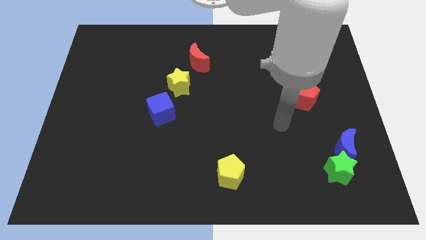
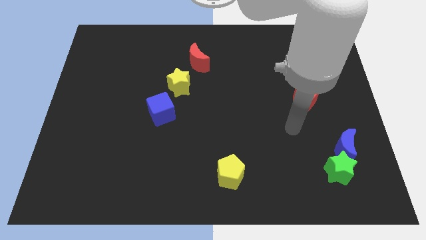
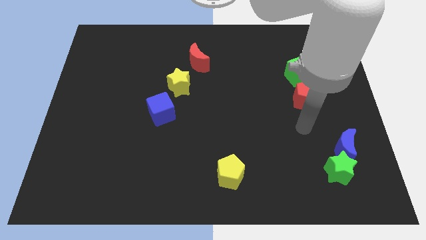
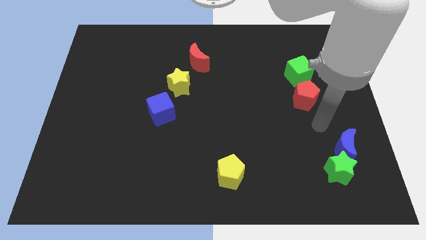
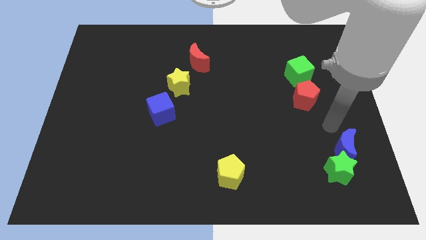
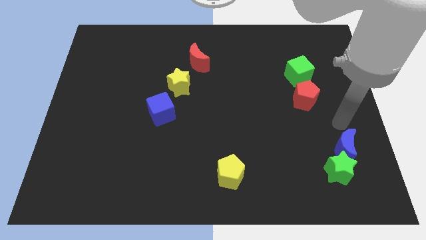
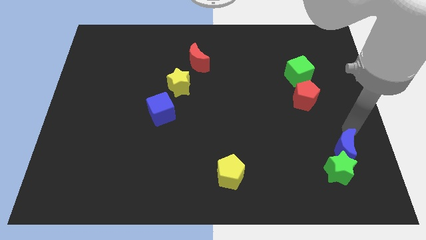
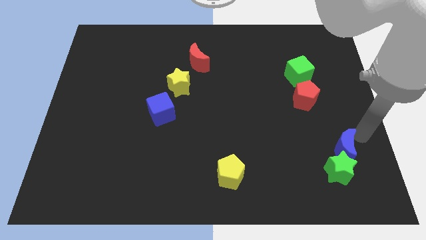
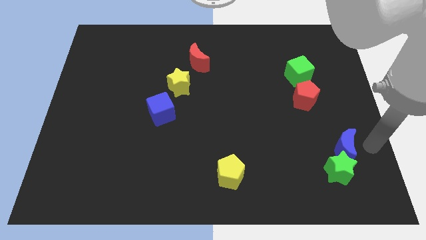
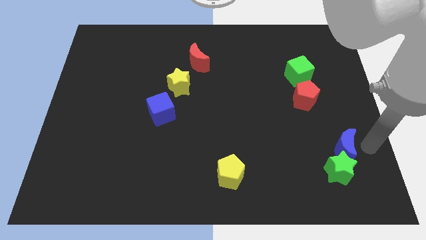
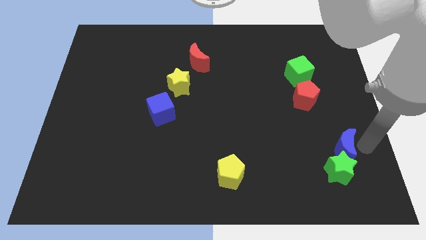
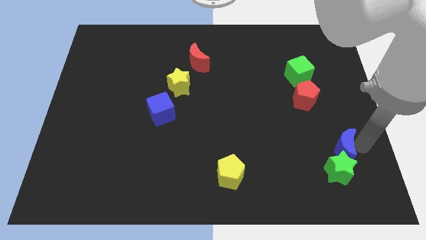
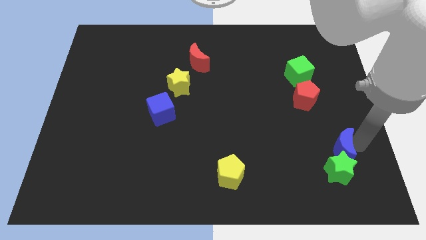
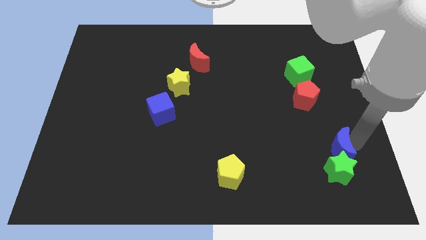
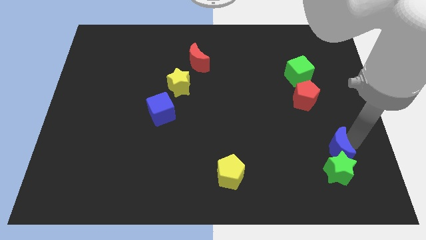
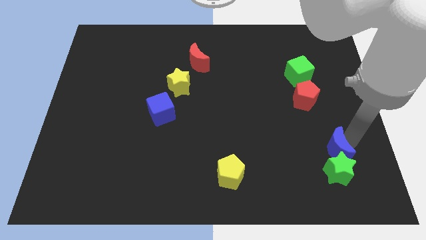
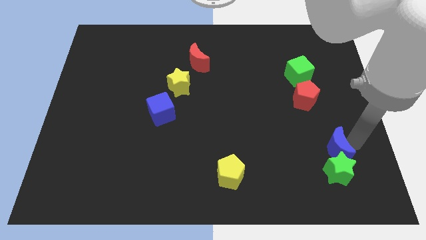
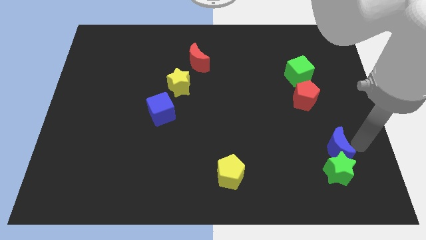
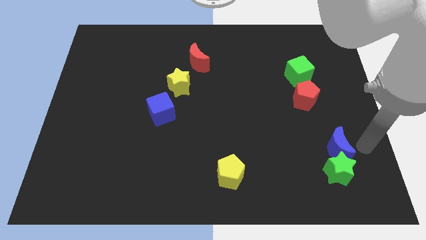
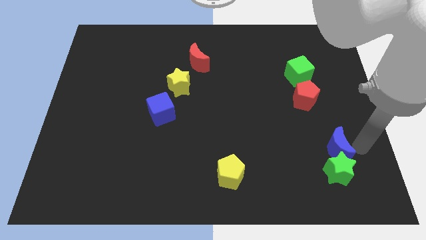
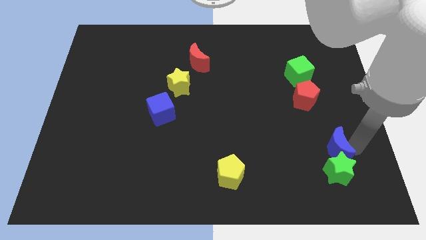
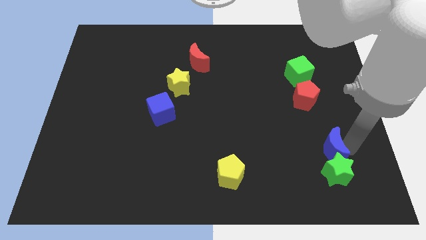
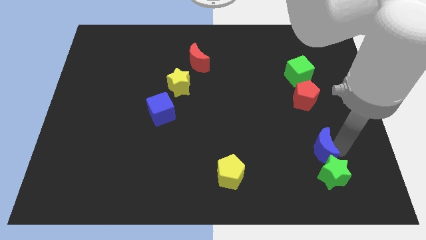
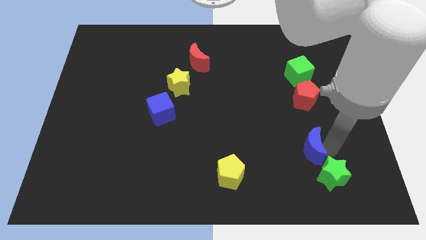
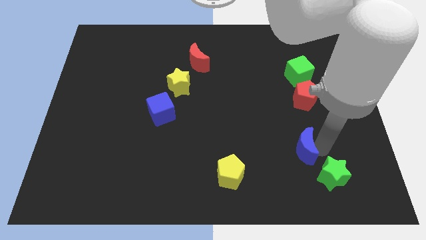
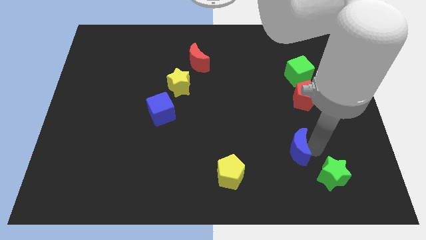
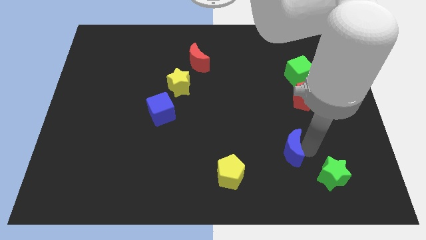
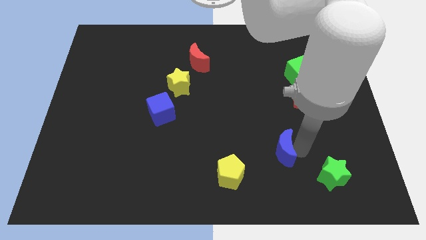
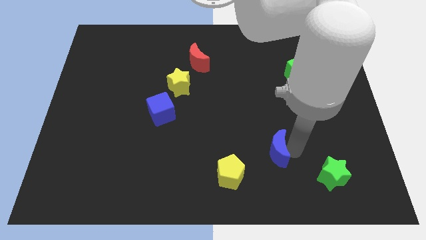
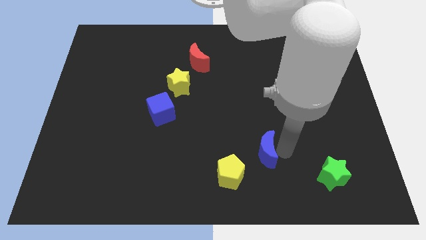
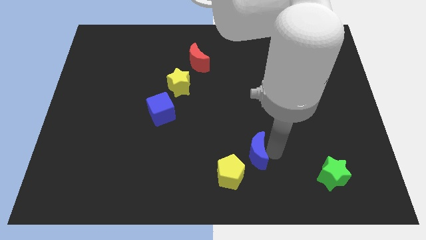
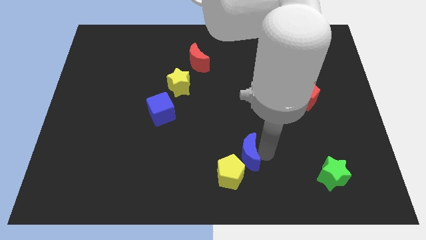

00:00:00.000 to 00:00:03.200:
push the blue moon left

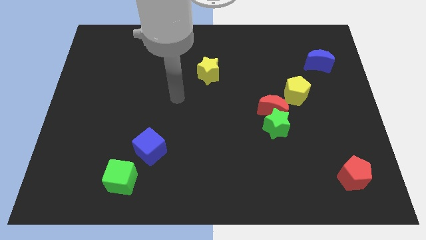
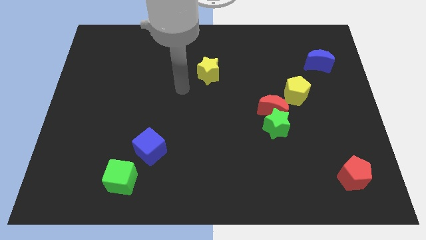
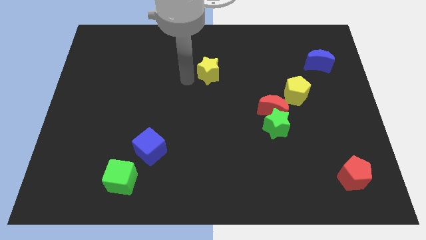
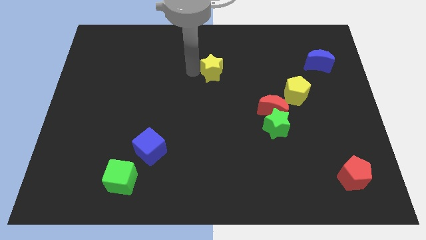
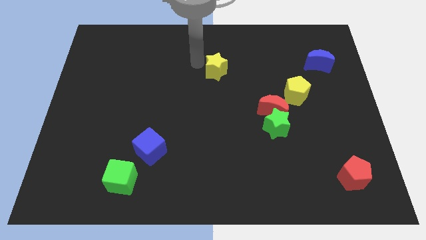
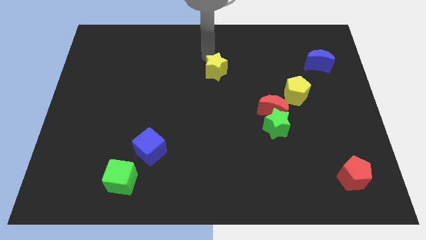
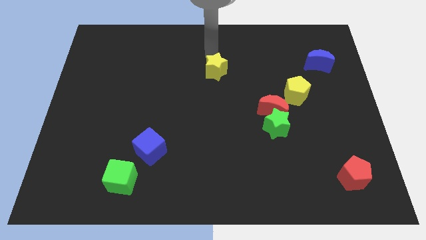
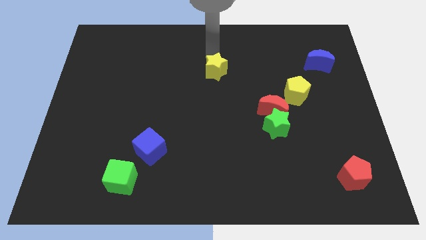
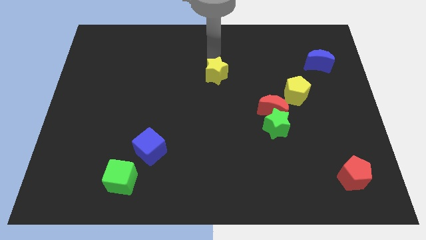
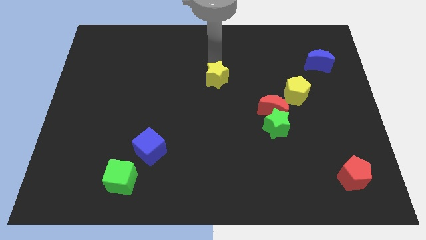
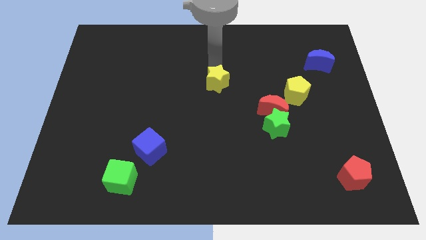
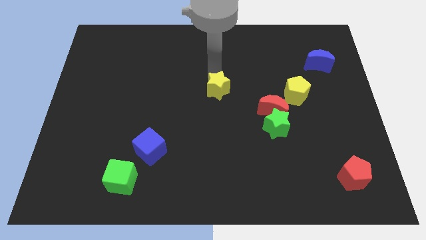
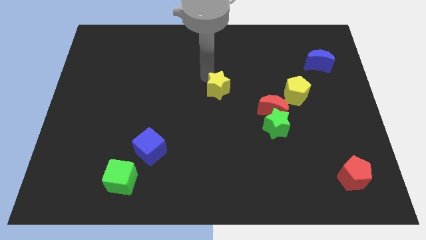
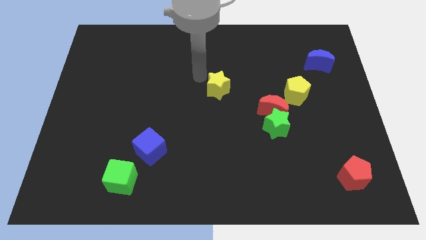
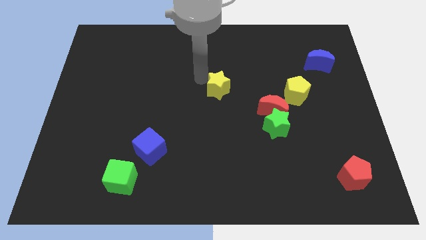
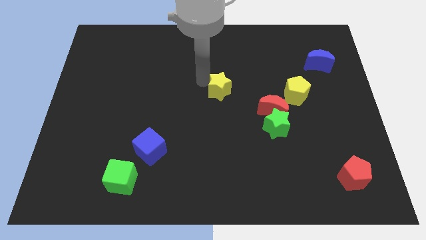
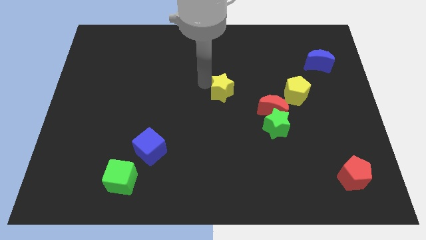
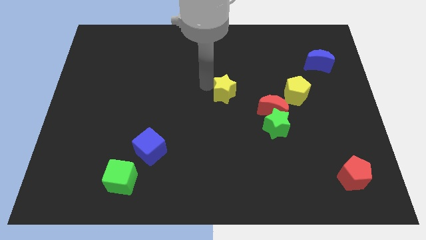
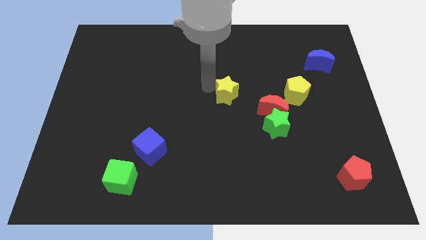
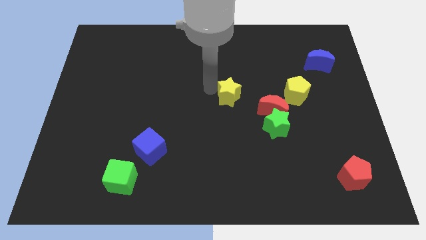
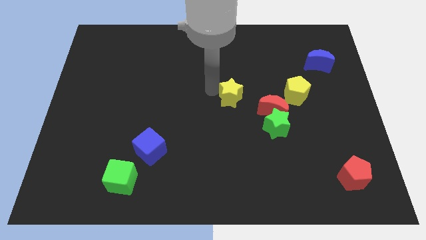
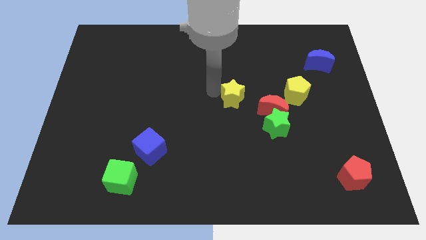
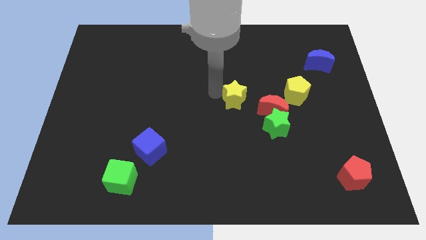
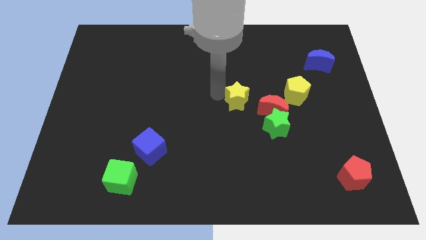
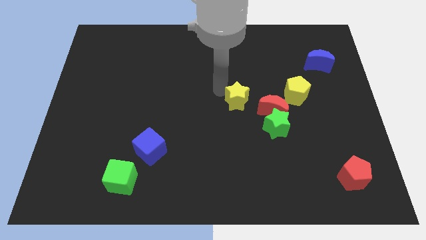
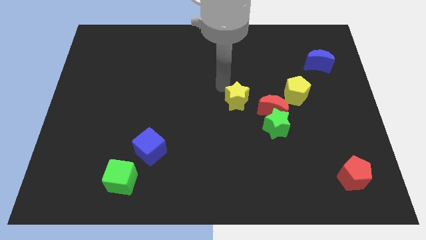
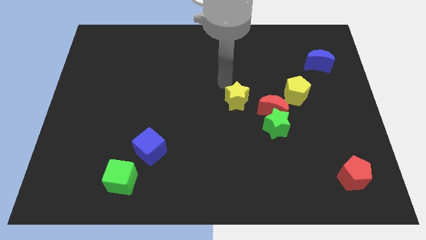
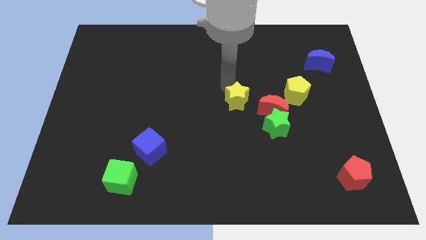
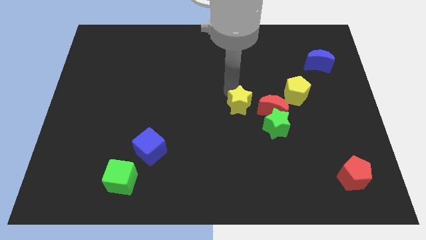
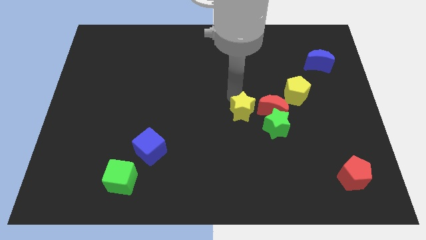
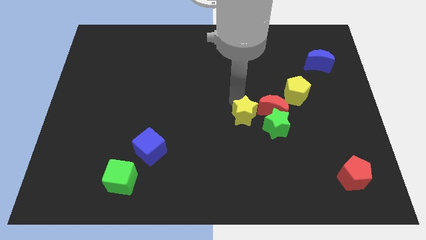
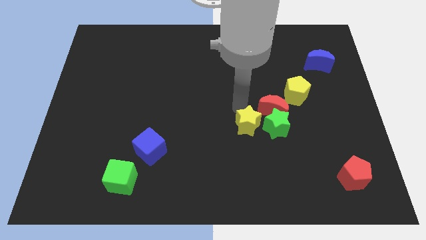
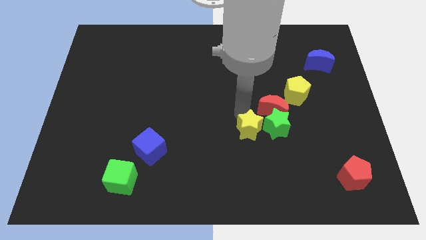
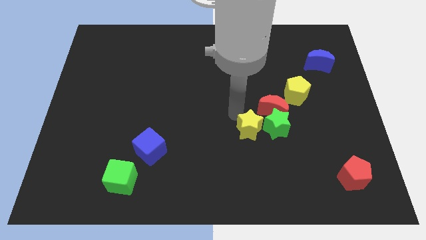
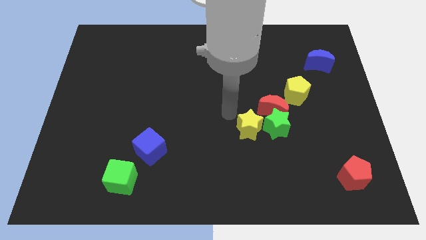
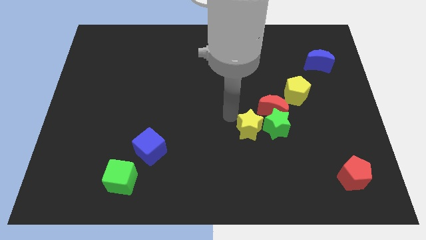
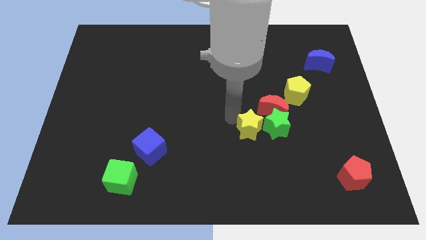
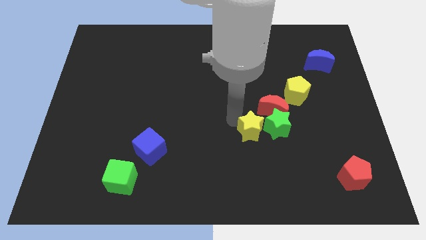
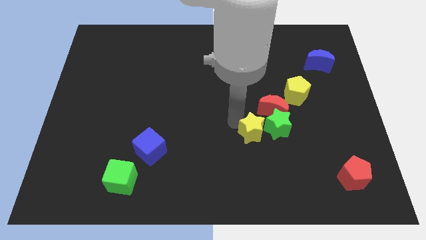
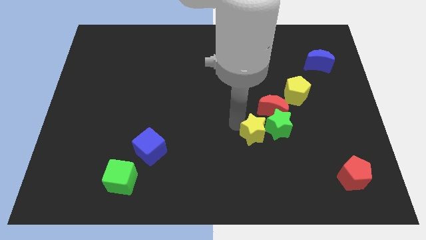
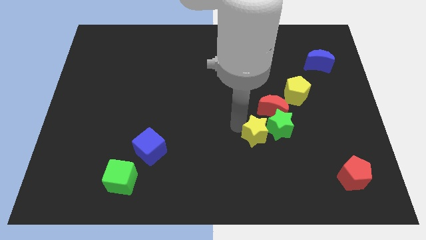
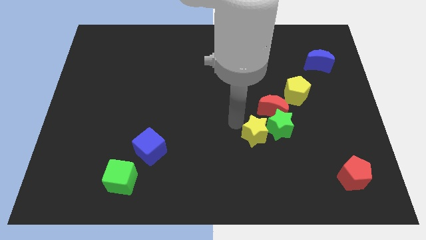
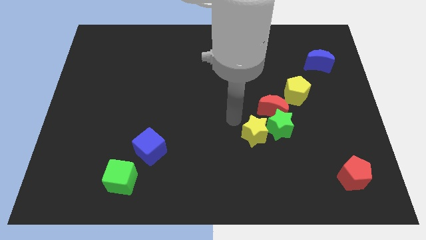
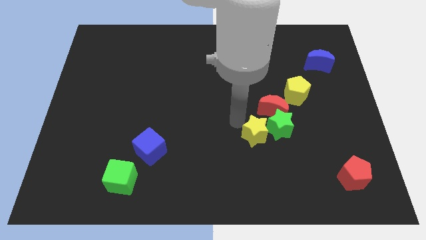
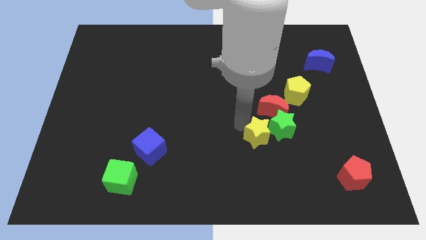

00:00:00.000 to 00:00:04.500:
move the yellow star downwards and then right

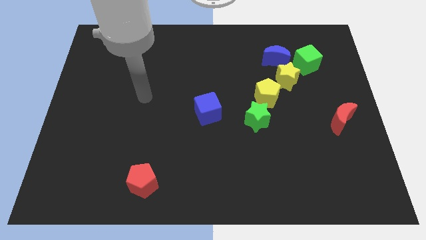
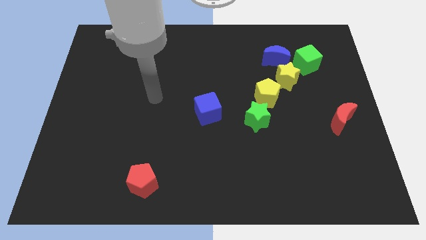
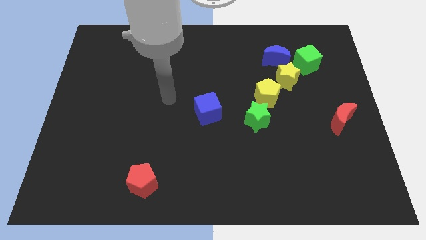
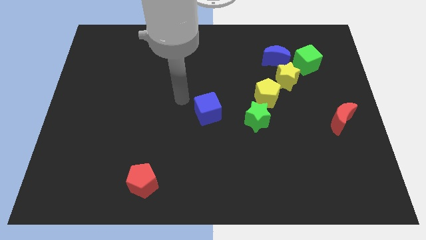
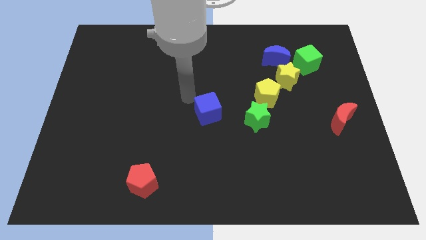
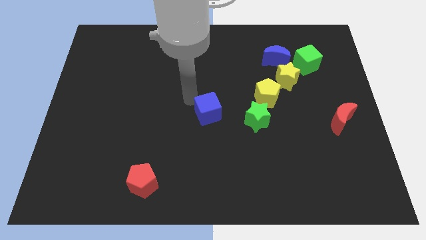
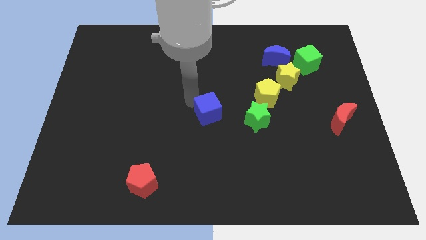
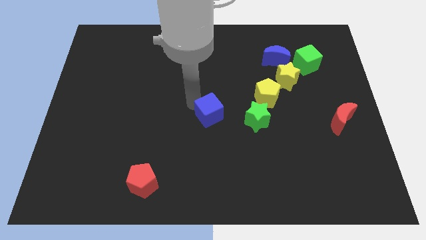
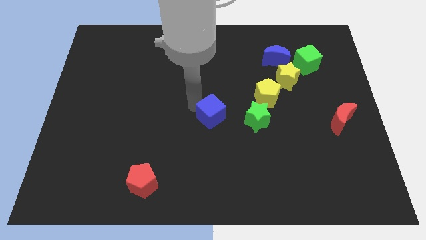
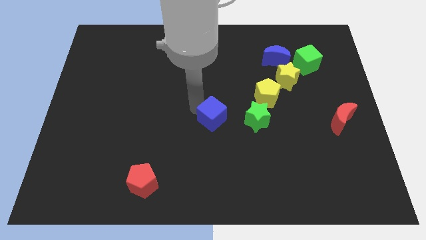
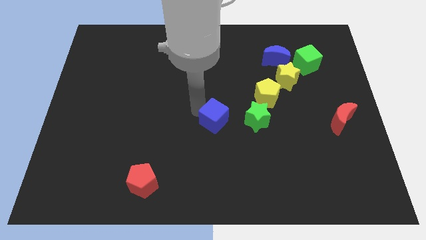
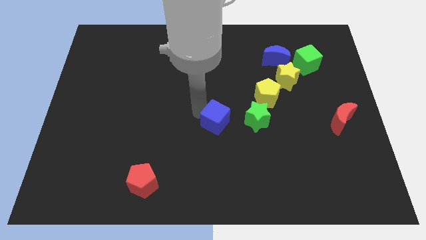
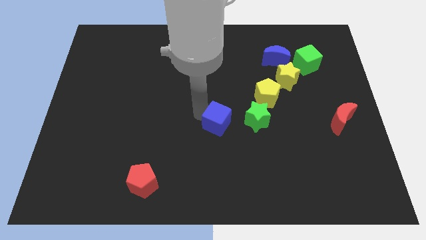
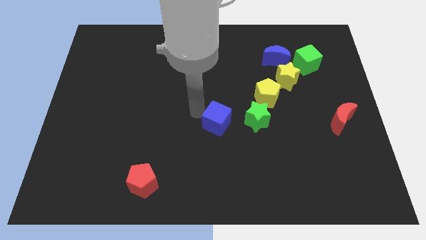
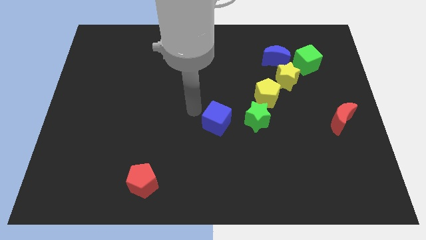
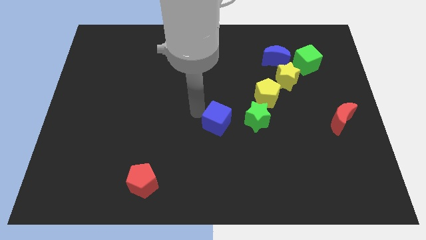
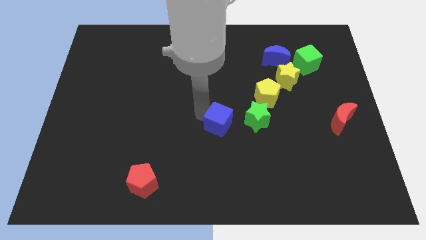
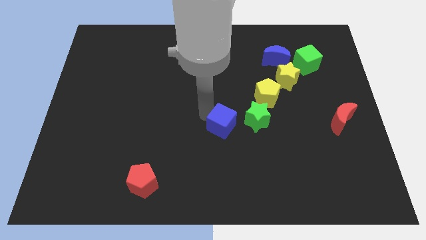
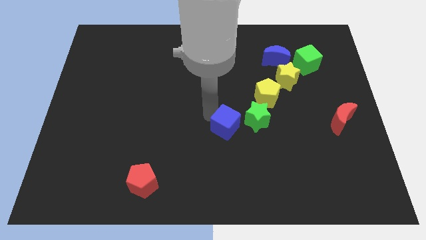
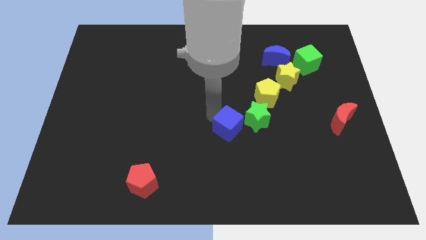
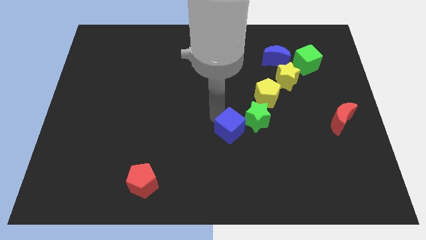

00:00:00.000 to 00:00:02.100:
push the blue cube a little bit downwards and right diagonally
